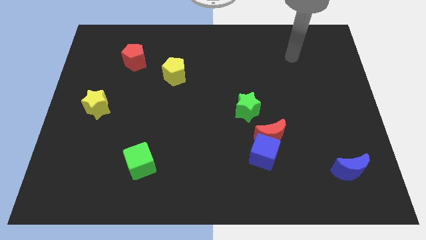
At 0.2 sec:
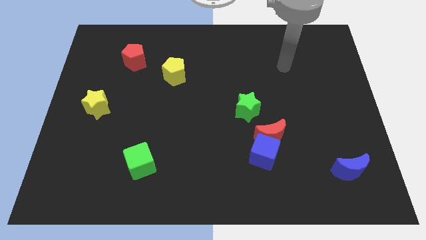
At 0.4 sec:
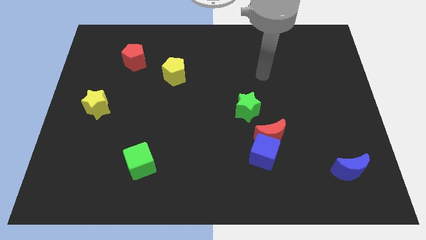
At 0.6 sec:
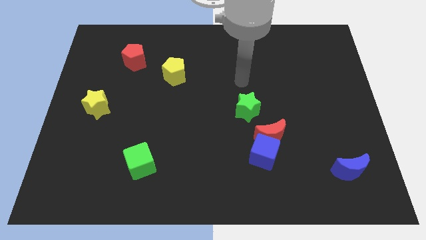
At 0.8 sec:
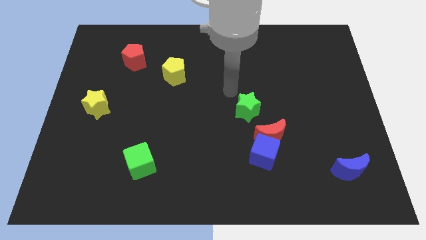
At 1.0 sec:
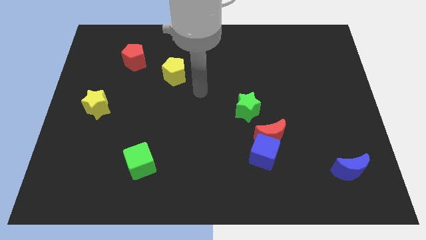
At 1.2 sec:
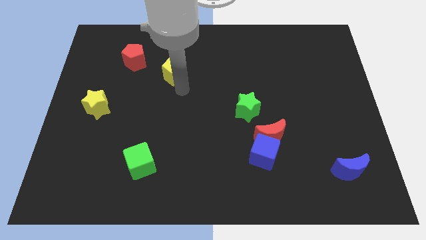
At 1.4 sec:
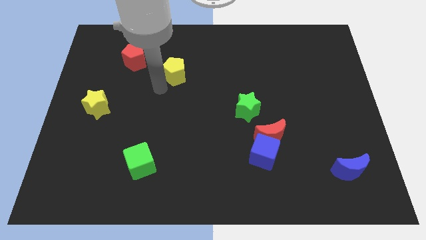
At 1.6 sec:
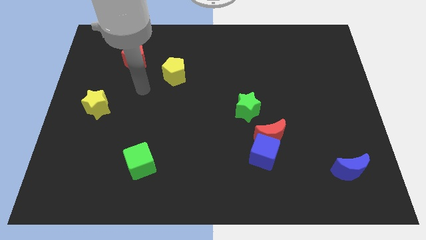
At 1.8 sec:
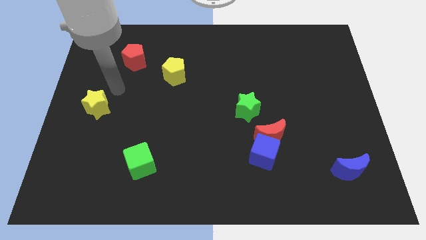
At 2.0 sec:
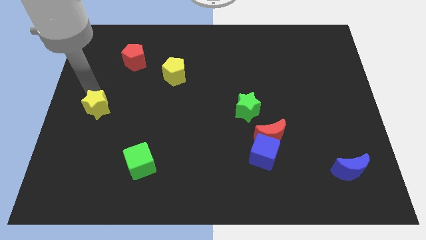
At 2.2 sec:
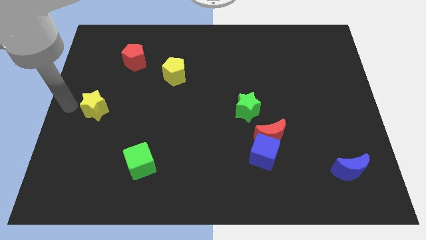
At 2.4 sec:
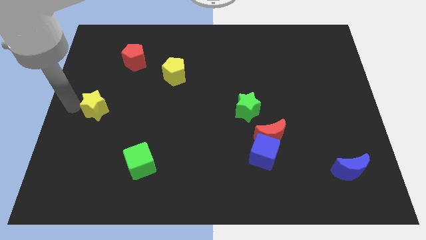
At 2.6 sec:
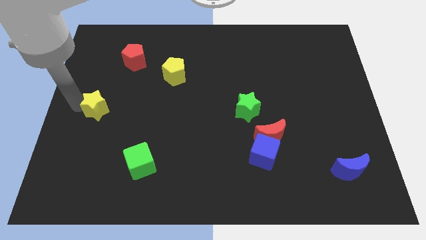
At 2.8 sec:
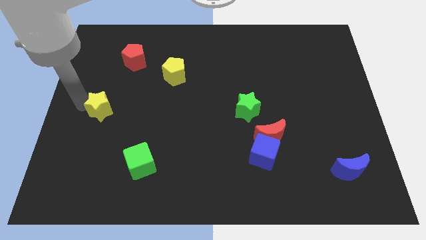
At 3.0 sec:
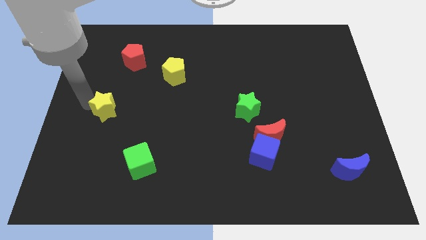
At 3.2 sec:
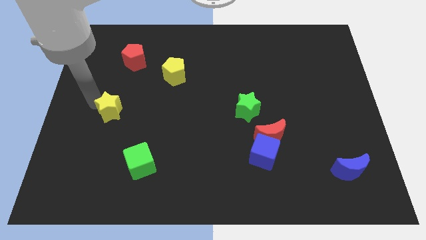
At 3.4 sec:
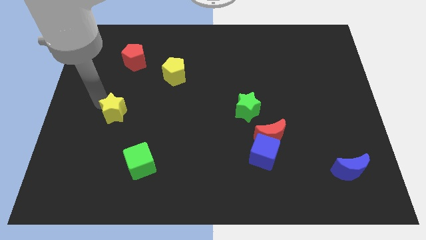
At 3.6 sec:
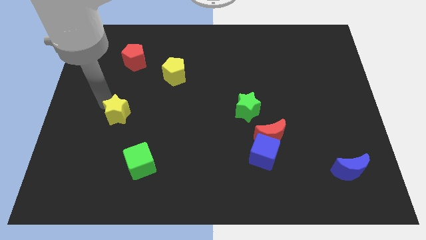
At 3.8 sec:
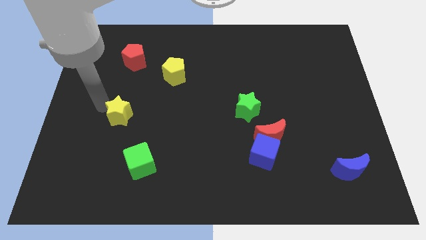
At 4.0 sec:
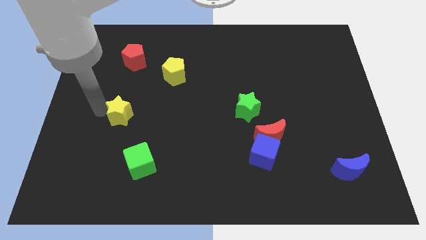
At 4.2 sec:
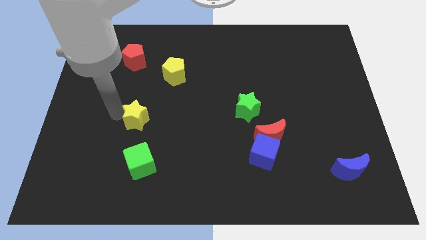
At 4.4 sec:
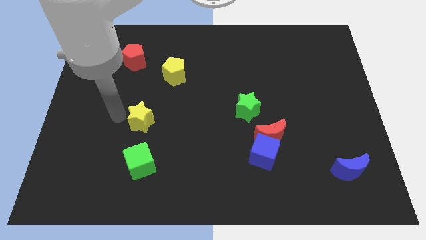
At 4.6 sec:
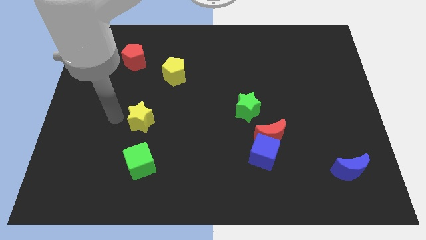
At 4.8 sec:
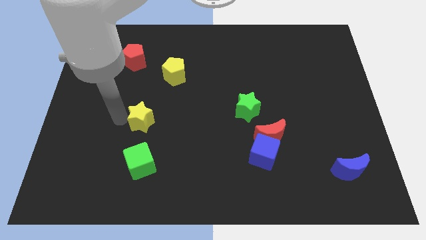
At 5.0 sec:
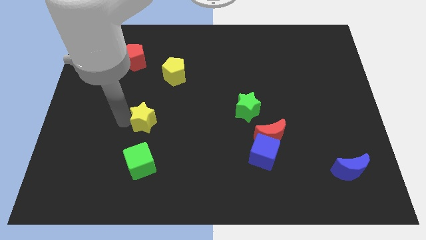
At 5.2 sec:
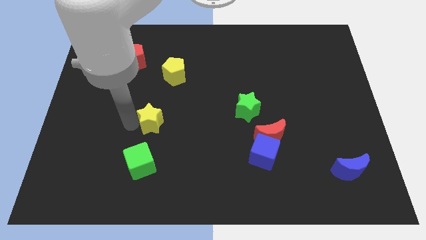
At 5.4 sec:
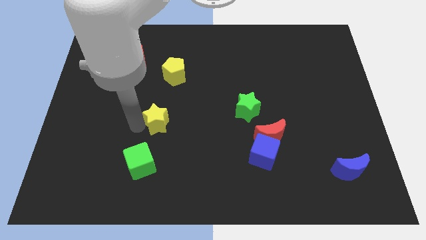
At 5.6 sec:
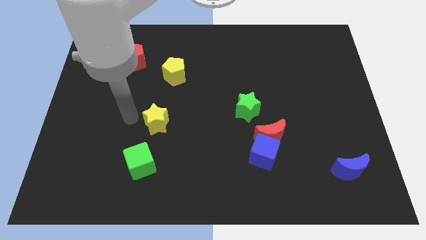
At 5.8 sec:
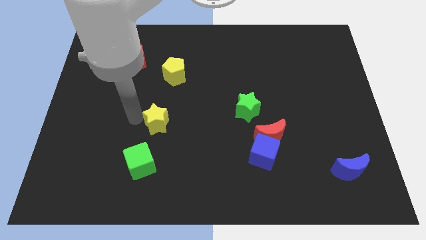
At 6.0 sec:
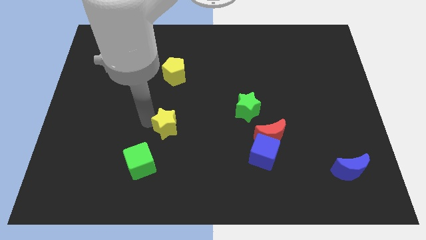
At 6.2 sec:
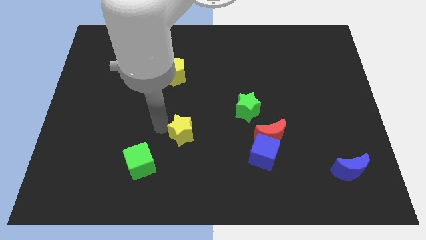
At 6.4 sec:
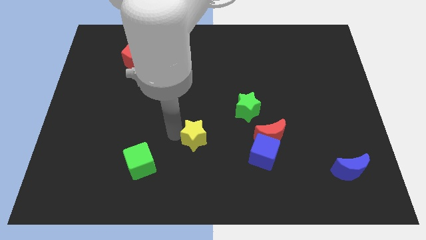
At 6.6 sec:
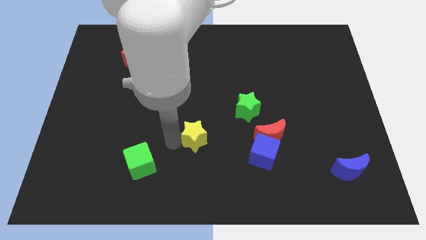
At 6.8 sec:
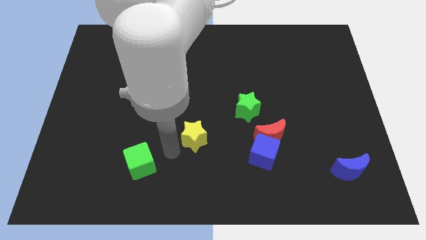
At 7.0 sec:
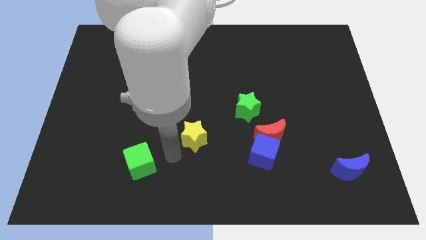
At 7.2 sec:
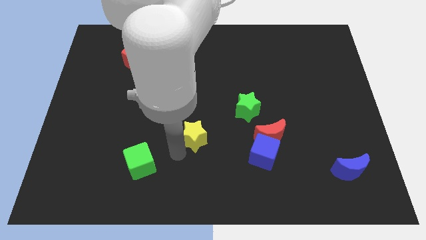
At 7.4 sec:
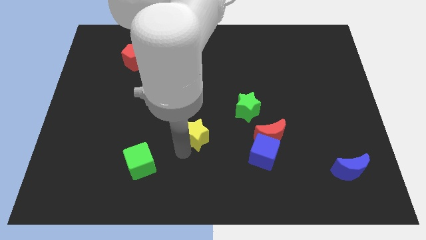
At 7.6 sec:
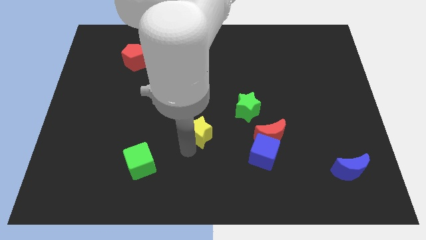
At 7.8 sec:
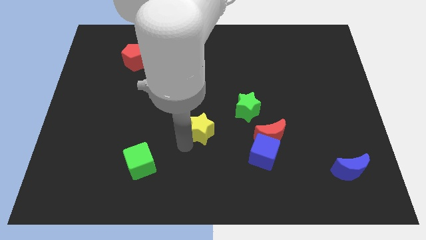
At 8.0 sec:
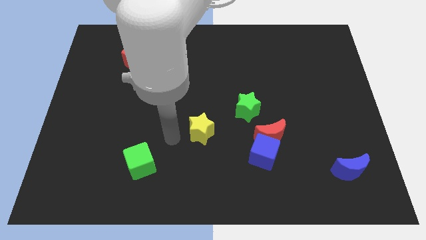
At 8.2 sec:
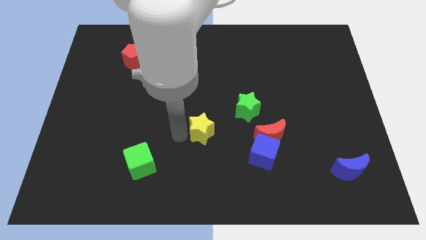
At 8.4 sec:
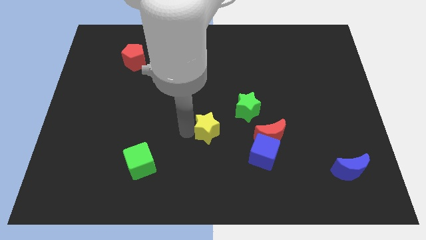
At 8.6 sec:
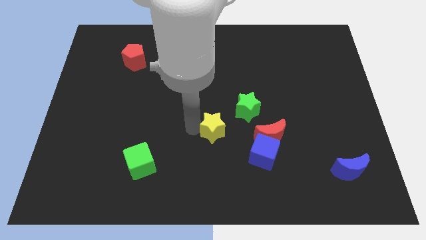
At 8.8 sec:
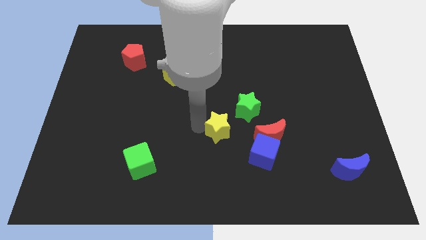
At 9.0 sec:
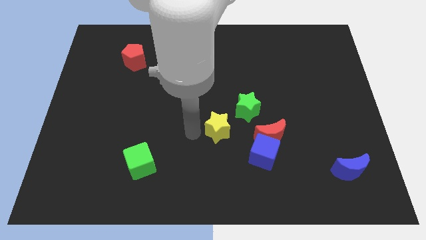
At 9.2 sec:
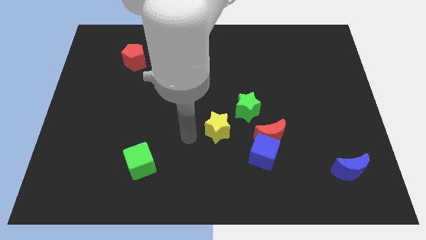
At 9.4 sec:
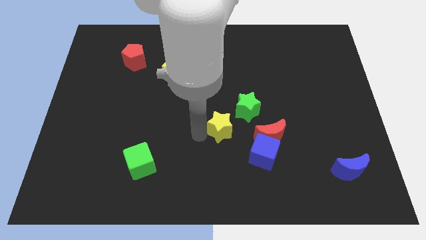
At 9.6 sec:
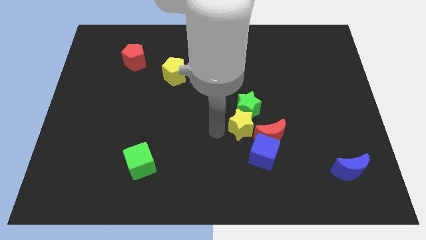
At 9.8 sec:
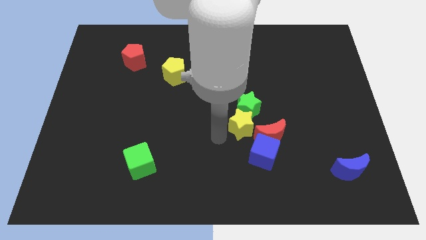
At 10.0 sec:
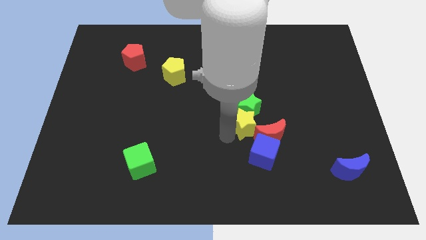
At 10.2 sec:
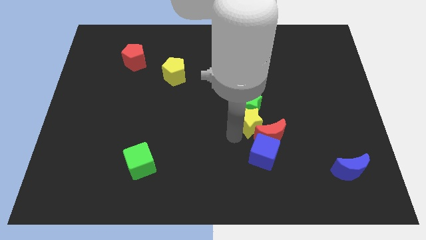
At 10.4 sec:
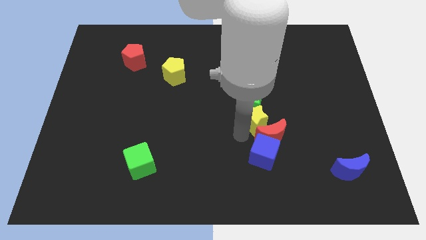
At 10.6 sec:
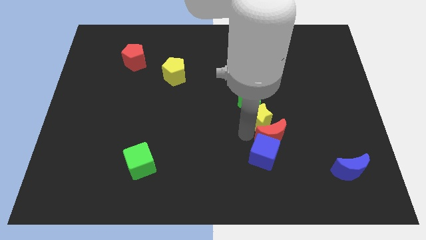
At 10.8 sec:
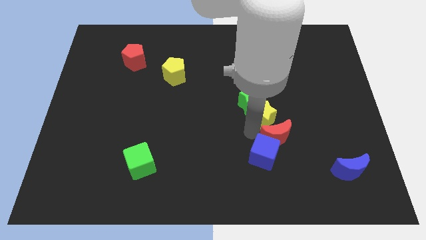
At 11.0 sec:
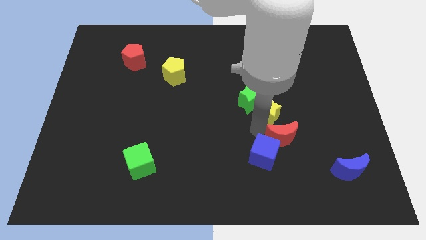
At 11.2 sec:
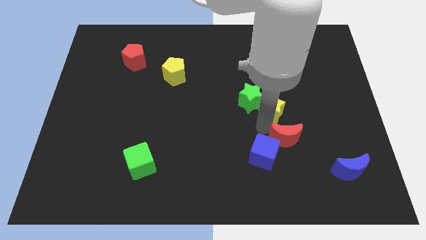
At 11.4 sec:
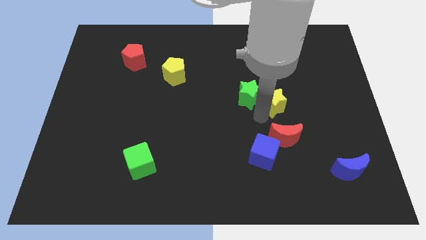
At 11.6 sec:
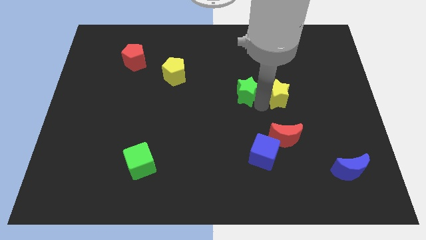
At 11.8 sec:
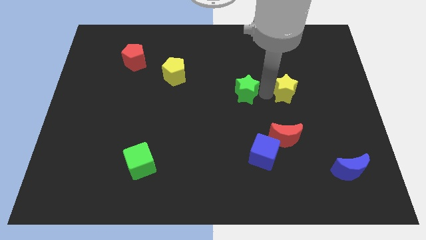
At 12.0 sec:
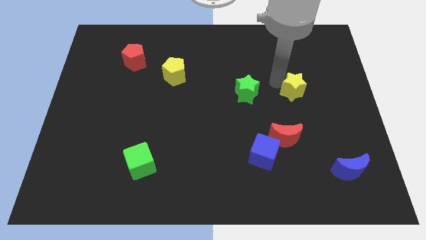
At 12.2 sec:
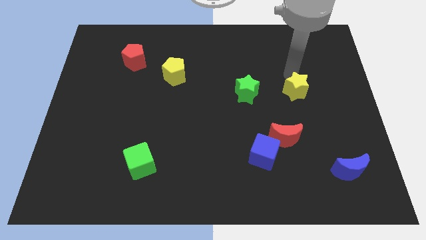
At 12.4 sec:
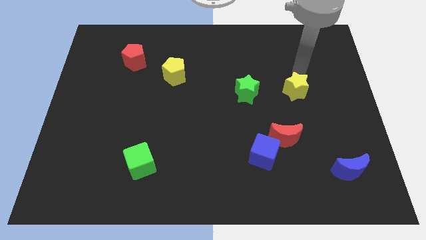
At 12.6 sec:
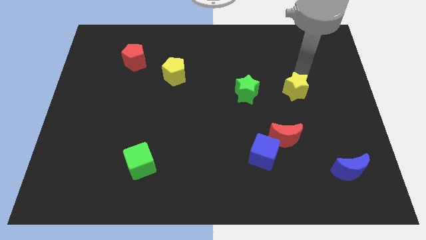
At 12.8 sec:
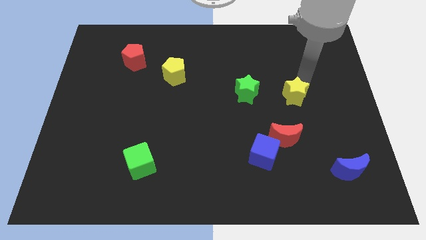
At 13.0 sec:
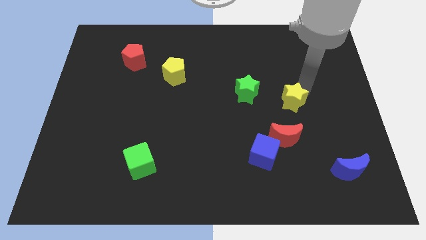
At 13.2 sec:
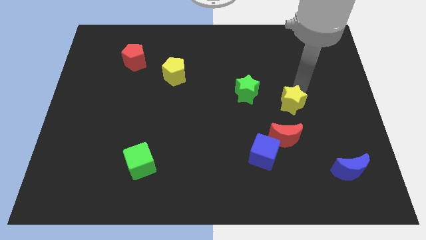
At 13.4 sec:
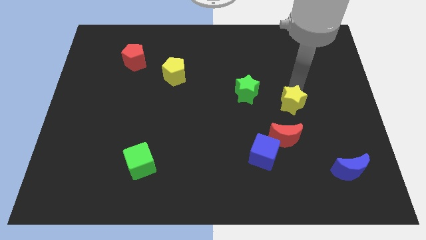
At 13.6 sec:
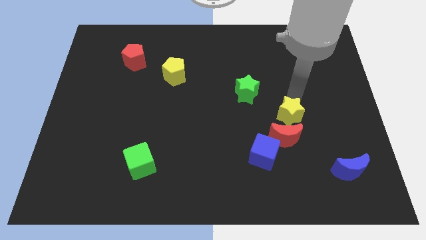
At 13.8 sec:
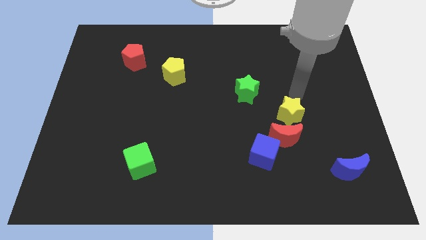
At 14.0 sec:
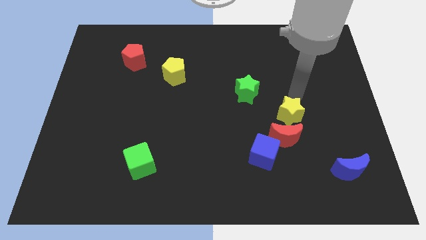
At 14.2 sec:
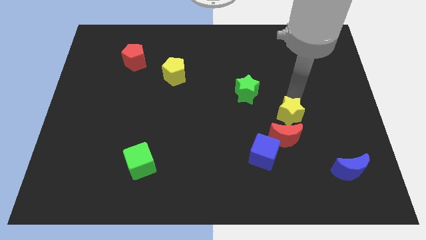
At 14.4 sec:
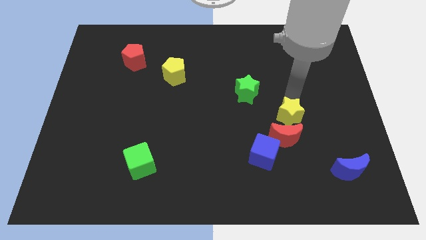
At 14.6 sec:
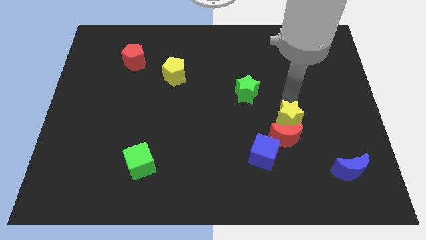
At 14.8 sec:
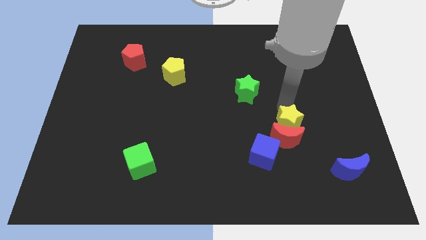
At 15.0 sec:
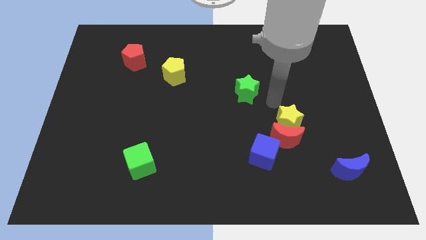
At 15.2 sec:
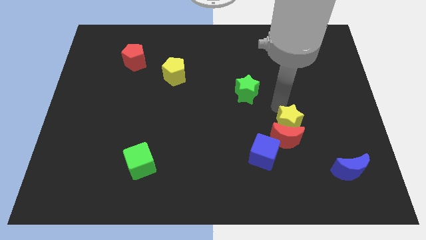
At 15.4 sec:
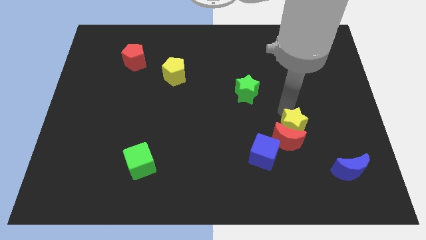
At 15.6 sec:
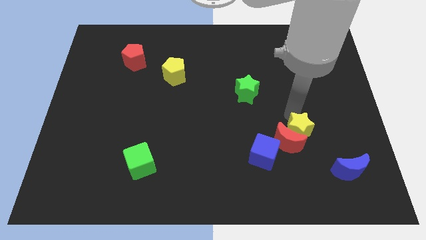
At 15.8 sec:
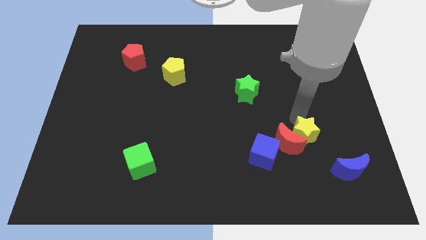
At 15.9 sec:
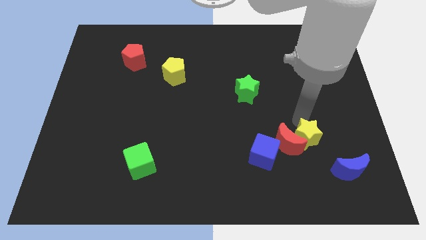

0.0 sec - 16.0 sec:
move the yellow star to the right of the blue cube
